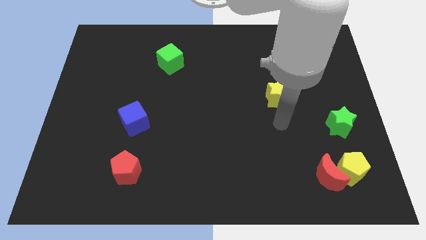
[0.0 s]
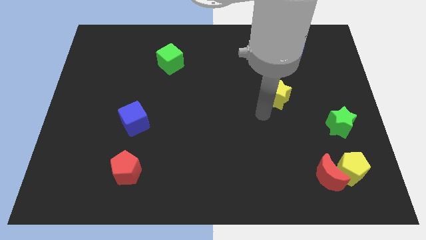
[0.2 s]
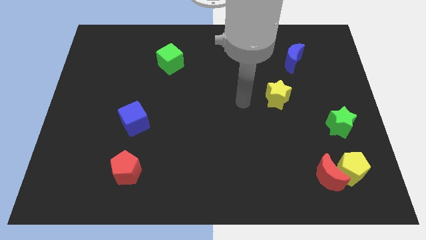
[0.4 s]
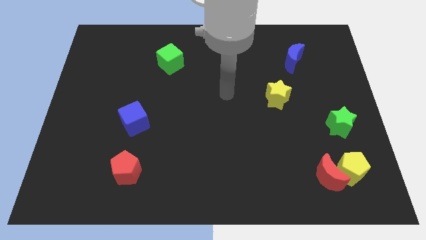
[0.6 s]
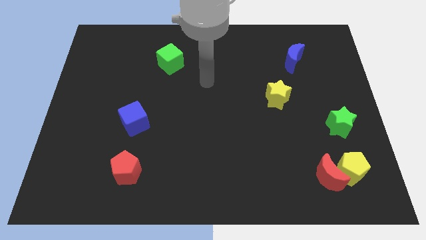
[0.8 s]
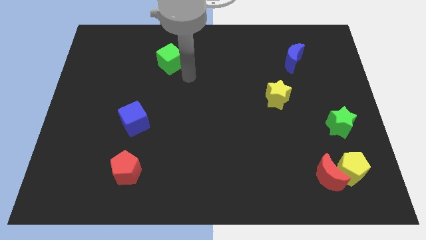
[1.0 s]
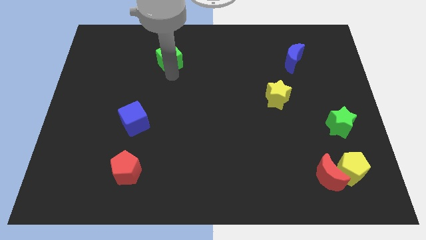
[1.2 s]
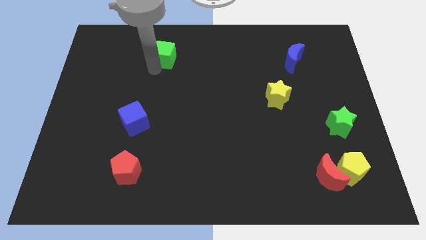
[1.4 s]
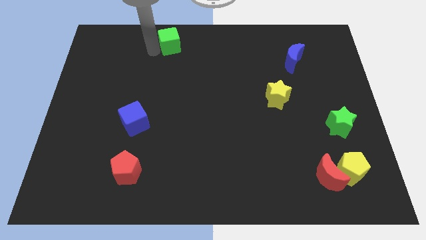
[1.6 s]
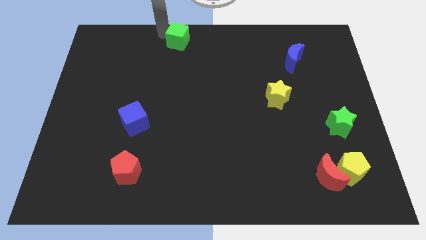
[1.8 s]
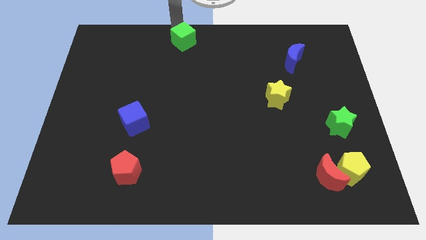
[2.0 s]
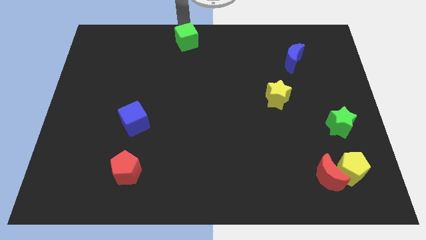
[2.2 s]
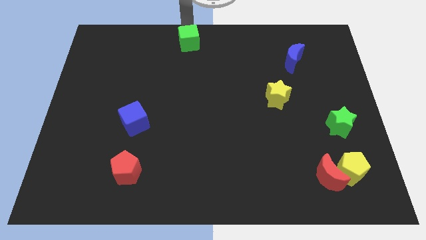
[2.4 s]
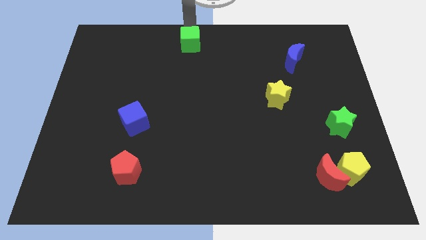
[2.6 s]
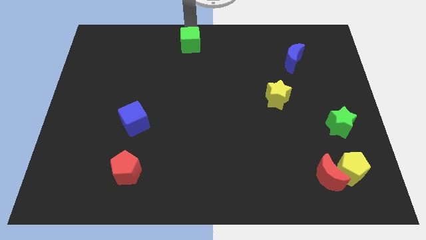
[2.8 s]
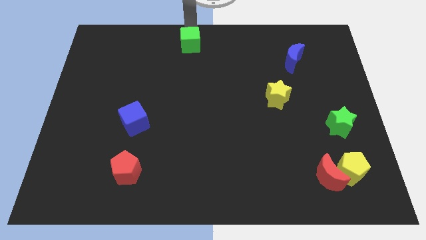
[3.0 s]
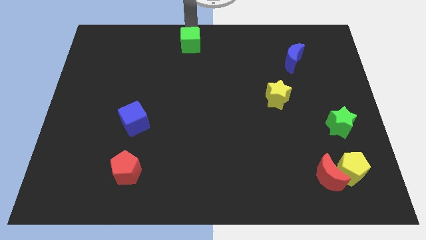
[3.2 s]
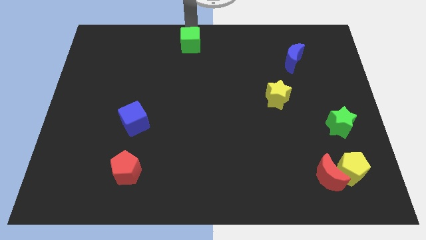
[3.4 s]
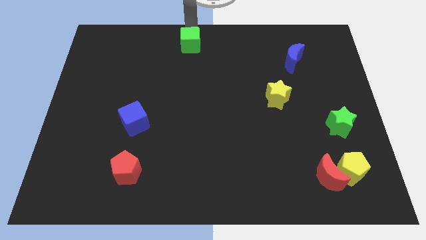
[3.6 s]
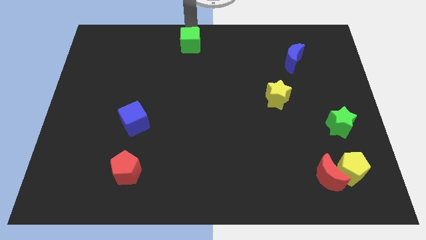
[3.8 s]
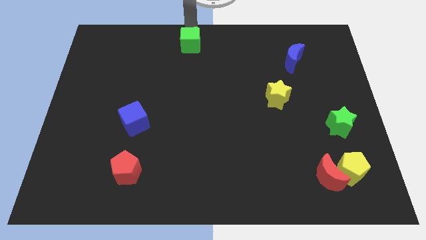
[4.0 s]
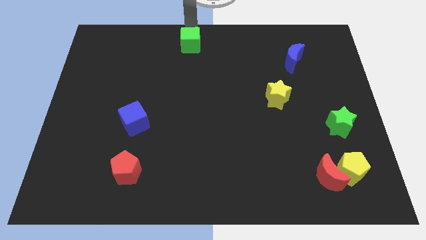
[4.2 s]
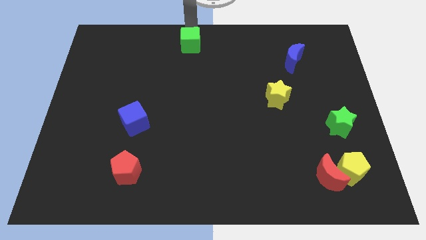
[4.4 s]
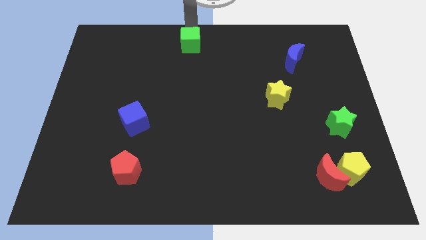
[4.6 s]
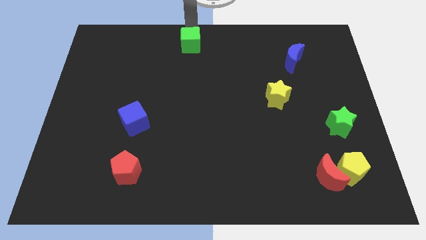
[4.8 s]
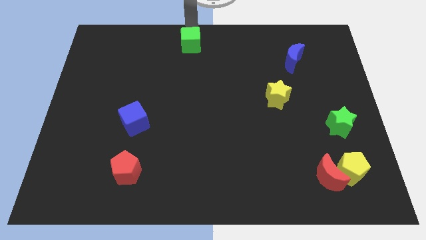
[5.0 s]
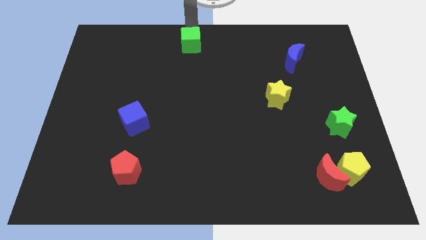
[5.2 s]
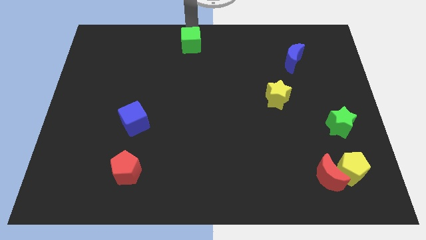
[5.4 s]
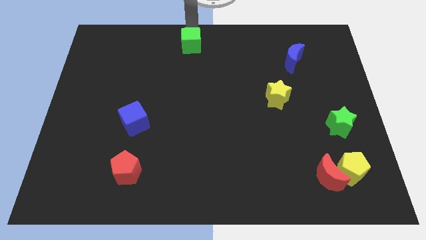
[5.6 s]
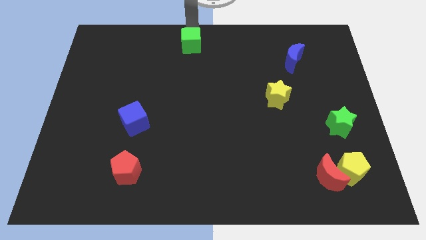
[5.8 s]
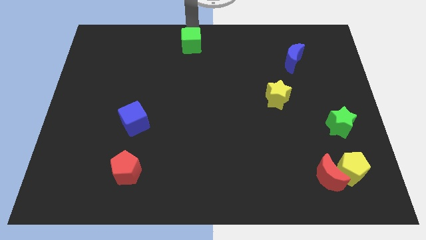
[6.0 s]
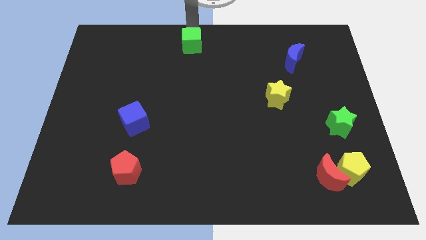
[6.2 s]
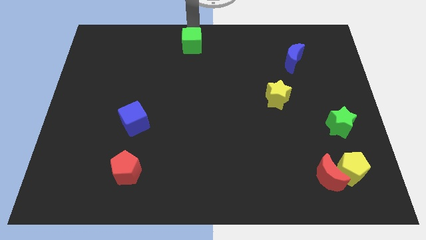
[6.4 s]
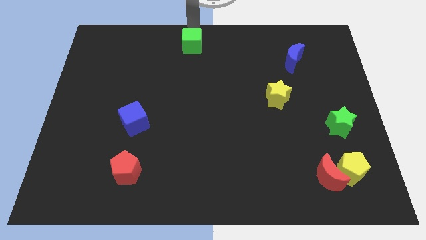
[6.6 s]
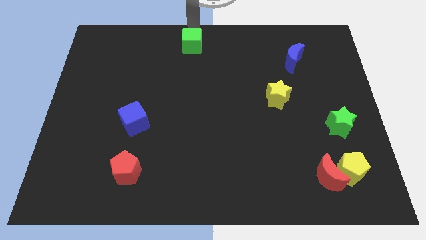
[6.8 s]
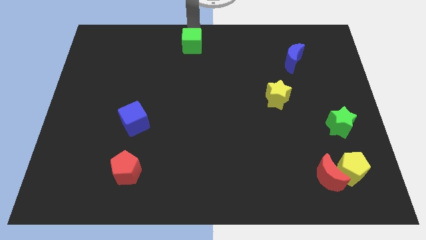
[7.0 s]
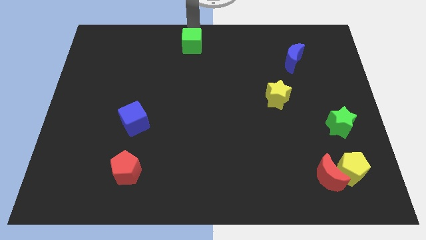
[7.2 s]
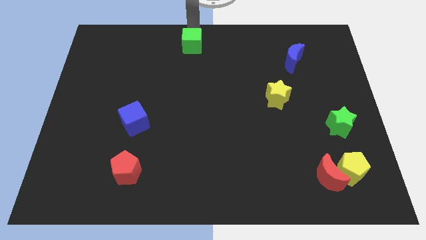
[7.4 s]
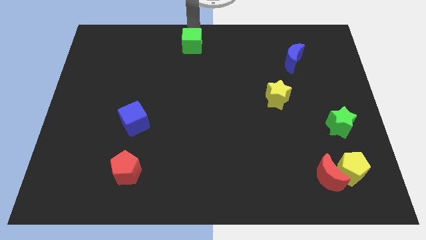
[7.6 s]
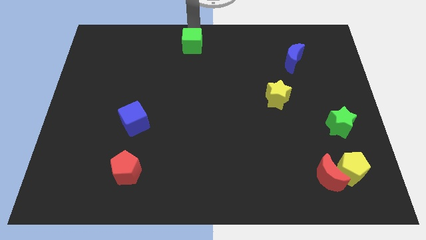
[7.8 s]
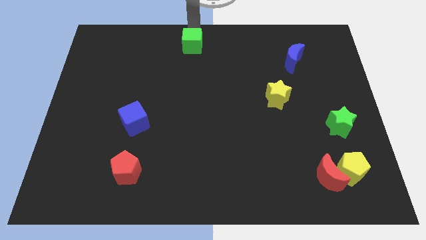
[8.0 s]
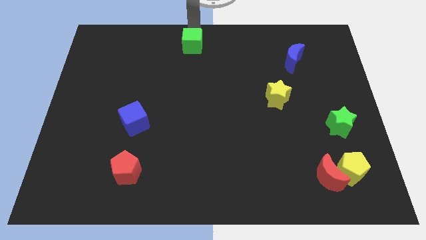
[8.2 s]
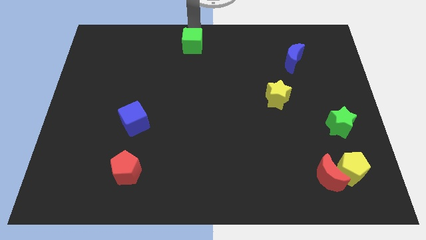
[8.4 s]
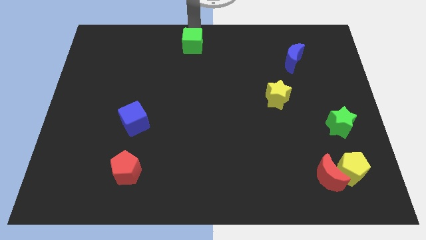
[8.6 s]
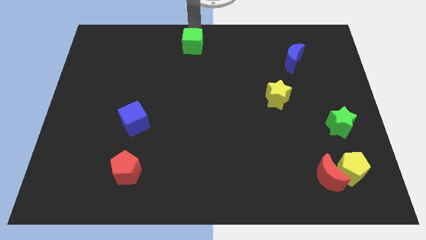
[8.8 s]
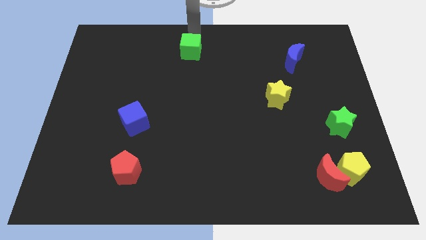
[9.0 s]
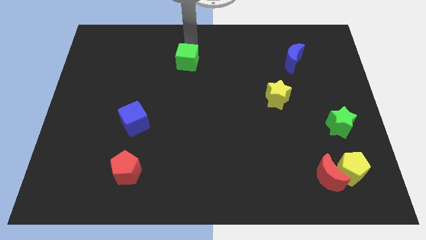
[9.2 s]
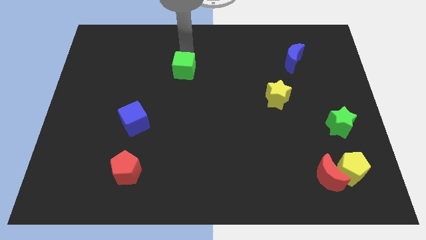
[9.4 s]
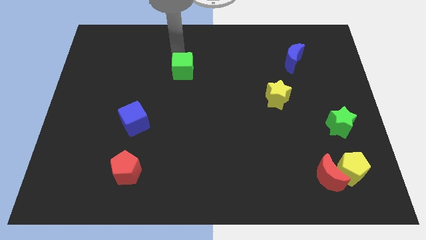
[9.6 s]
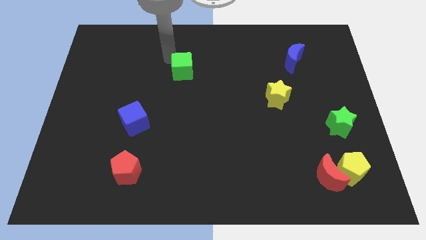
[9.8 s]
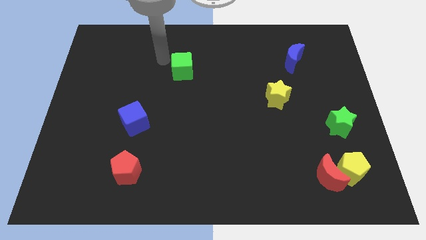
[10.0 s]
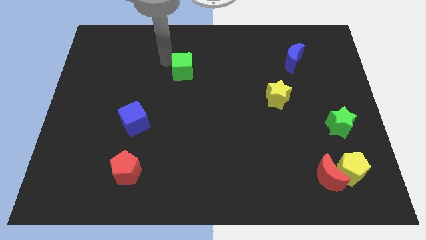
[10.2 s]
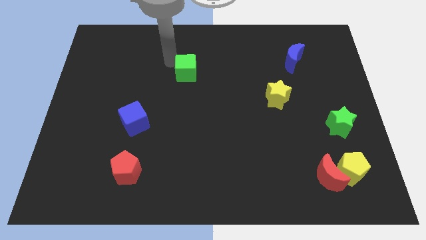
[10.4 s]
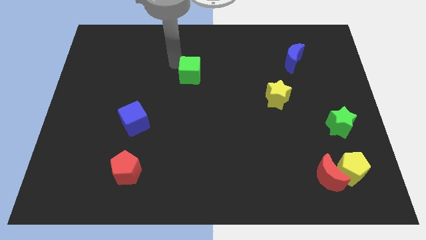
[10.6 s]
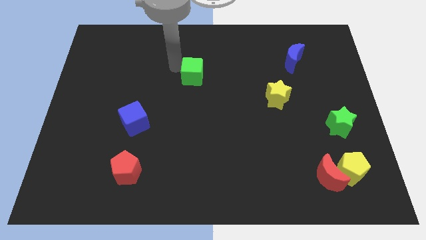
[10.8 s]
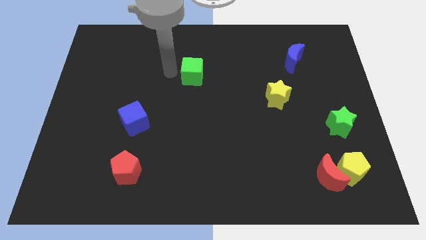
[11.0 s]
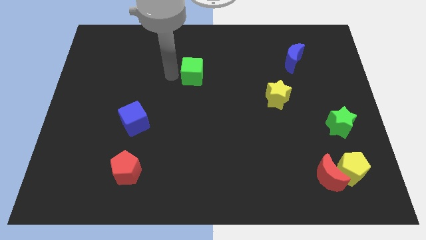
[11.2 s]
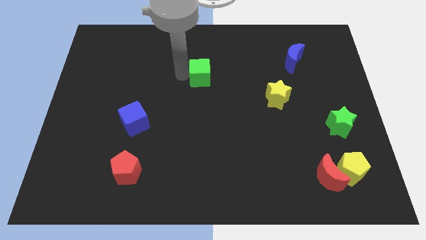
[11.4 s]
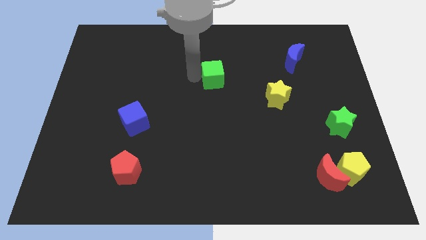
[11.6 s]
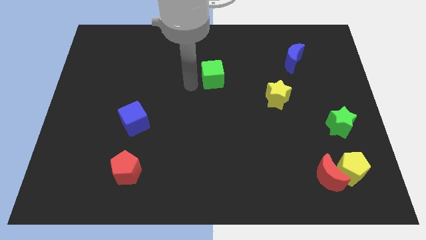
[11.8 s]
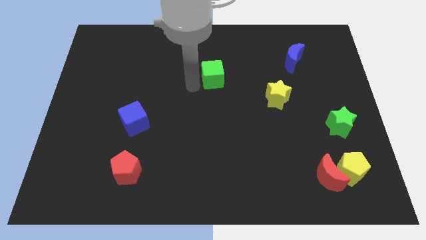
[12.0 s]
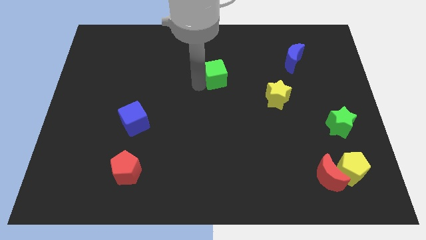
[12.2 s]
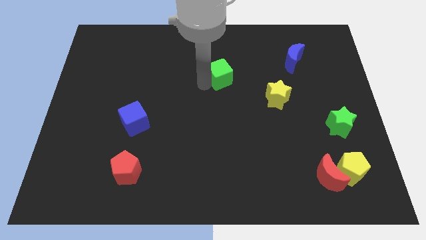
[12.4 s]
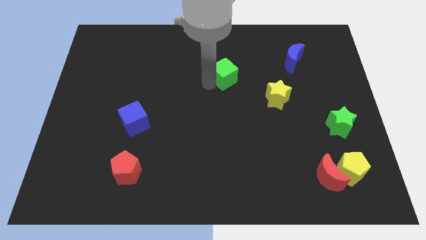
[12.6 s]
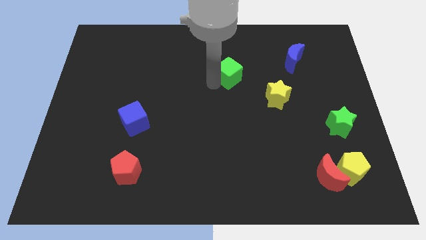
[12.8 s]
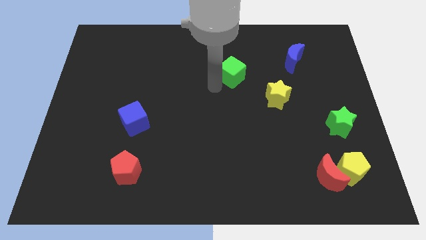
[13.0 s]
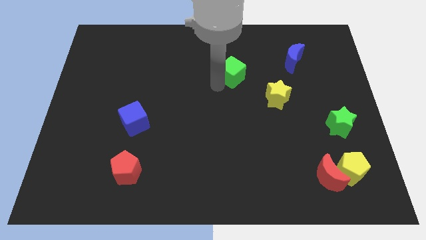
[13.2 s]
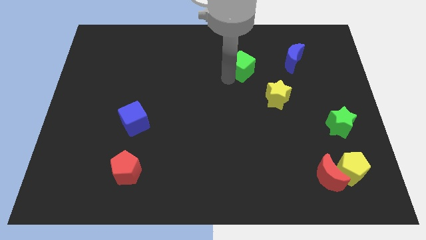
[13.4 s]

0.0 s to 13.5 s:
push the green cube left of the blue moon

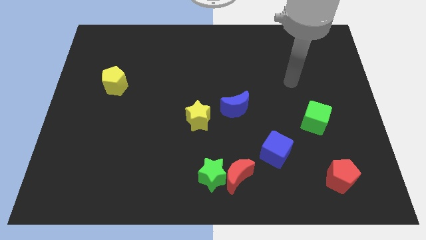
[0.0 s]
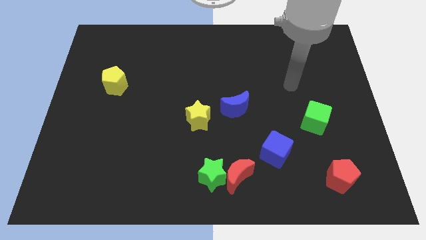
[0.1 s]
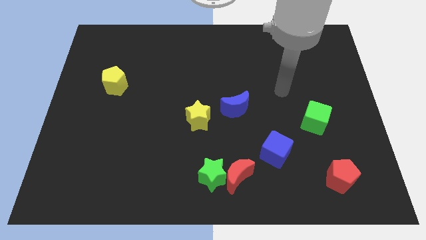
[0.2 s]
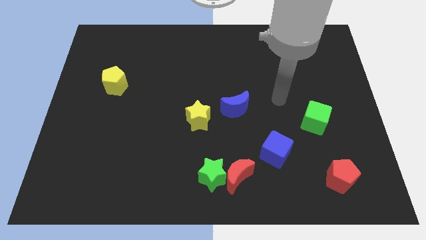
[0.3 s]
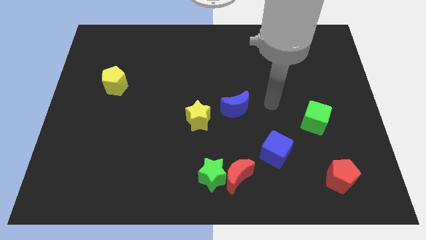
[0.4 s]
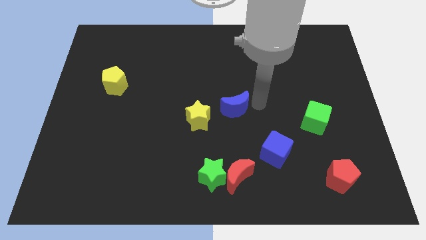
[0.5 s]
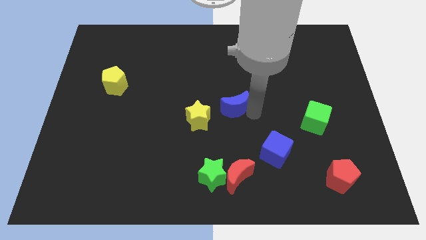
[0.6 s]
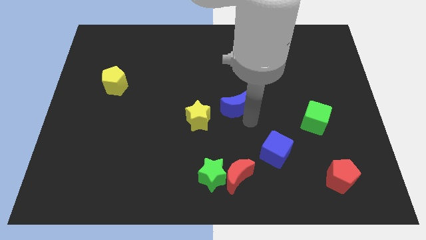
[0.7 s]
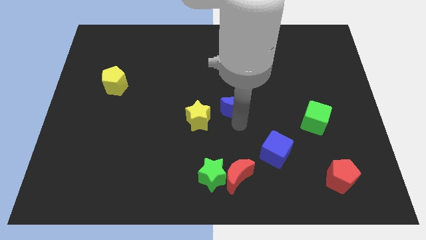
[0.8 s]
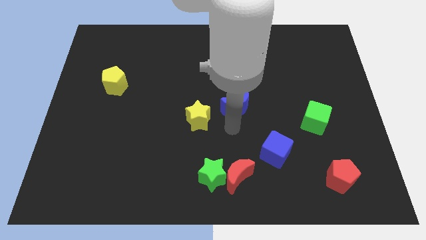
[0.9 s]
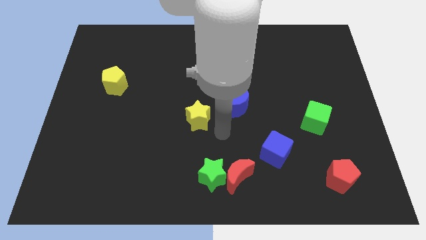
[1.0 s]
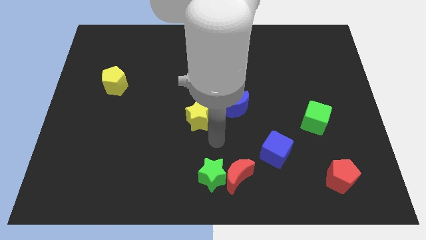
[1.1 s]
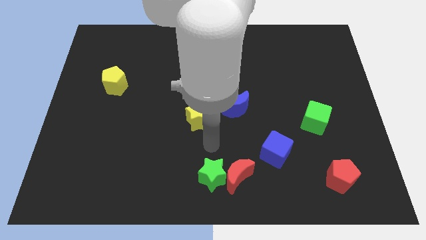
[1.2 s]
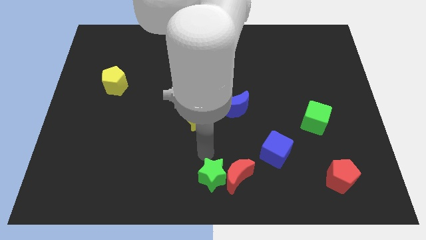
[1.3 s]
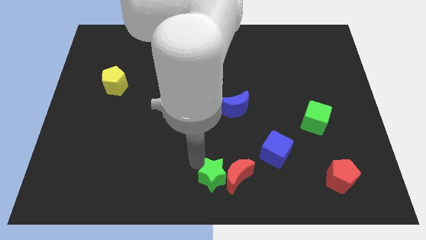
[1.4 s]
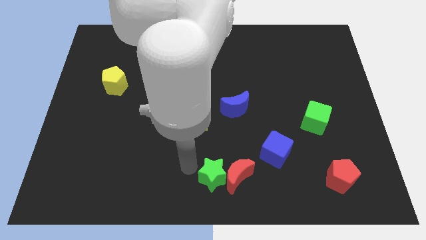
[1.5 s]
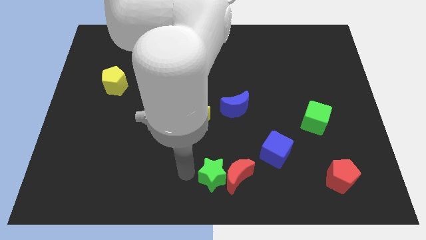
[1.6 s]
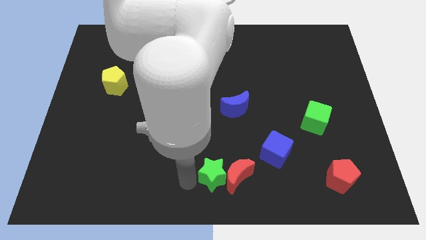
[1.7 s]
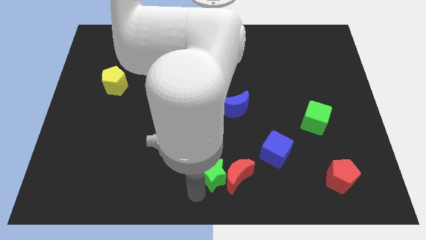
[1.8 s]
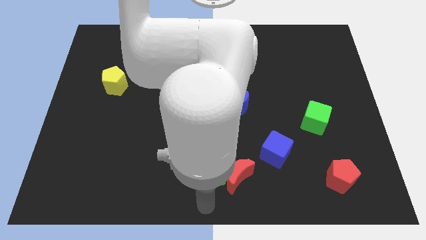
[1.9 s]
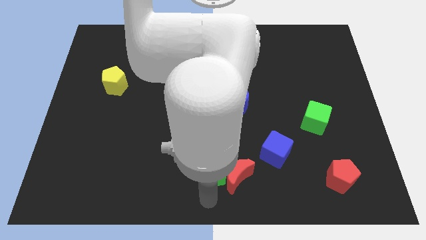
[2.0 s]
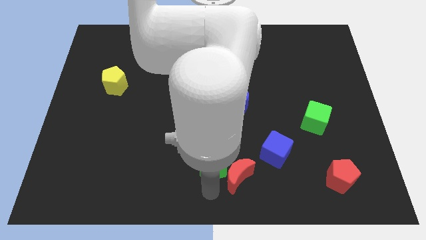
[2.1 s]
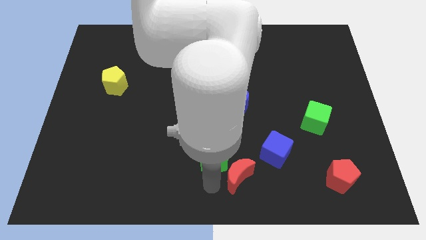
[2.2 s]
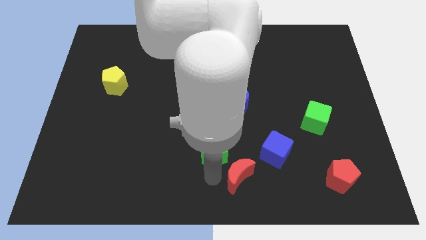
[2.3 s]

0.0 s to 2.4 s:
move the green star to the bottom right side of the yellow star
